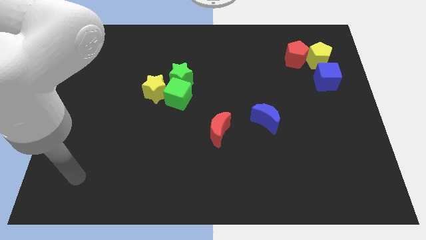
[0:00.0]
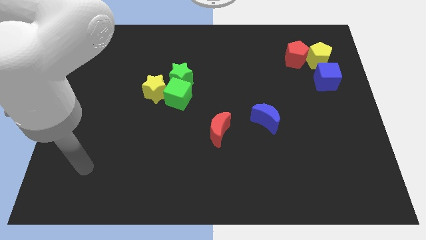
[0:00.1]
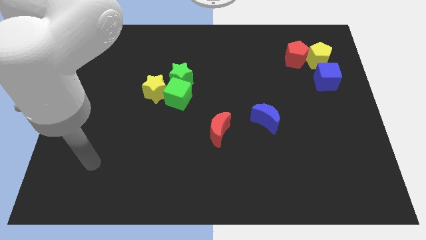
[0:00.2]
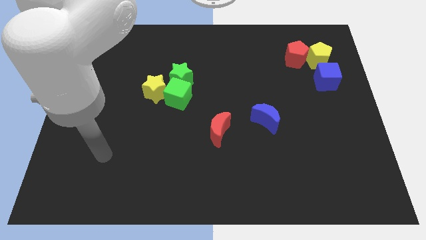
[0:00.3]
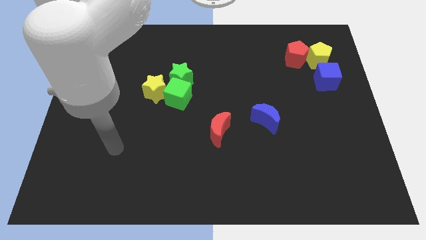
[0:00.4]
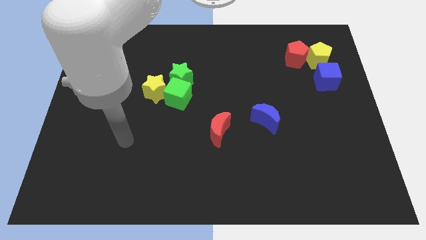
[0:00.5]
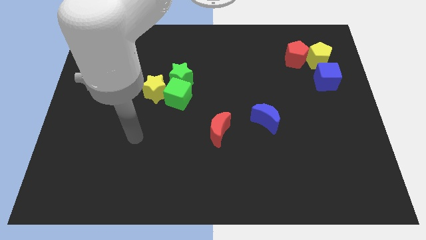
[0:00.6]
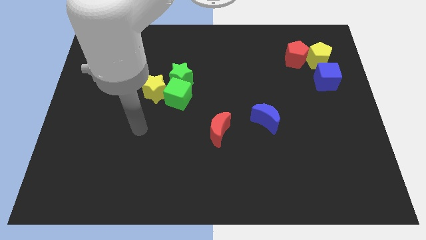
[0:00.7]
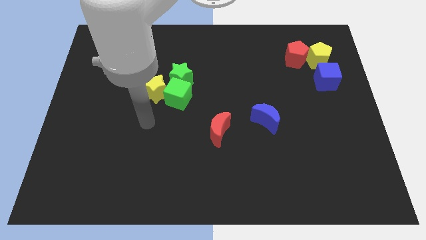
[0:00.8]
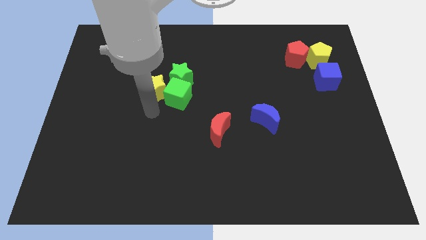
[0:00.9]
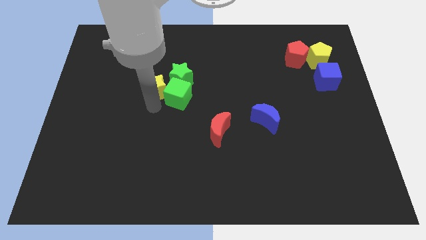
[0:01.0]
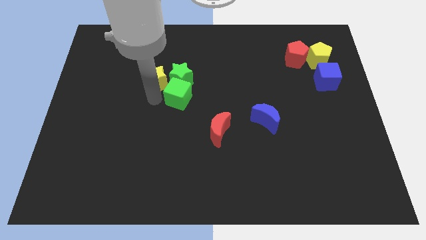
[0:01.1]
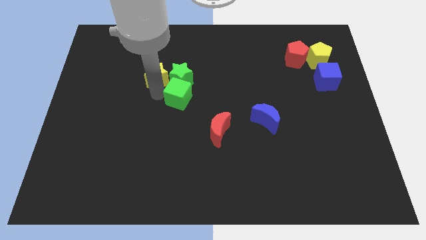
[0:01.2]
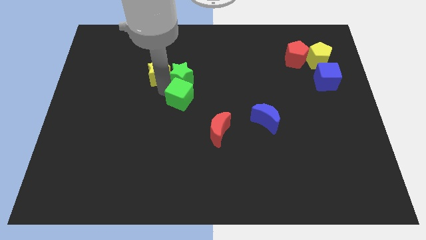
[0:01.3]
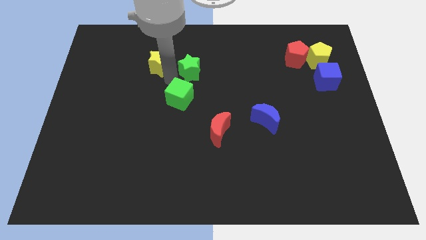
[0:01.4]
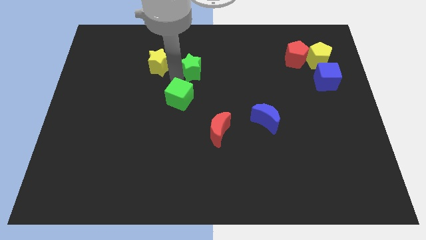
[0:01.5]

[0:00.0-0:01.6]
separate the green cube from the green star and yellow star

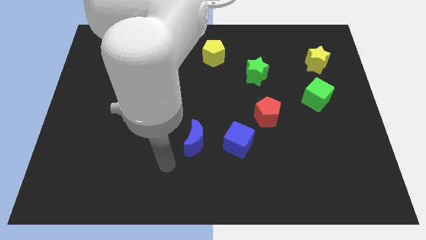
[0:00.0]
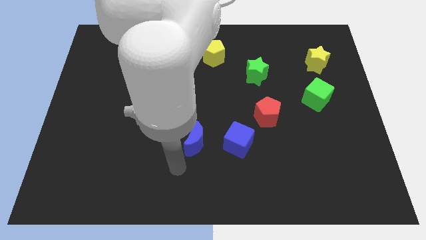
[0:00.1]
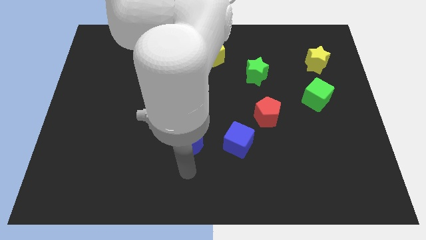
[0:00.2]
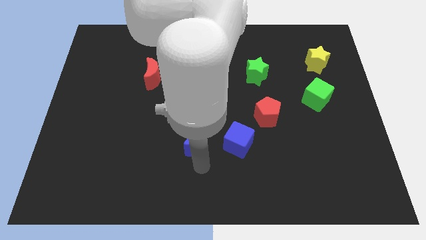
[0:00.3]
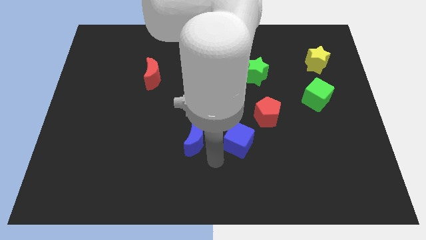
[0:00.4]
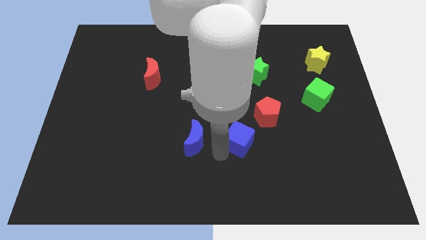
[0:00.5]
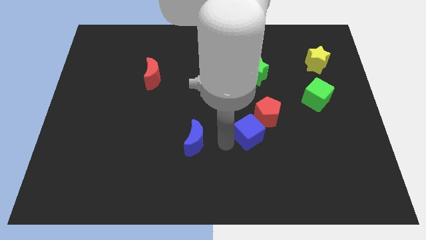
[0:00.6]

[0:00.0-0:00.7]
move the blue moon away from the blue cube

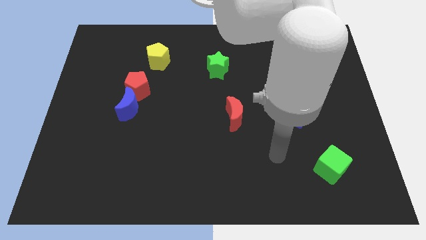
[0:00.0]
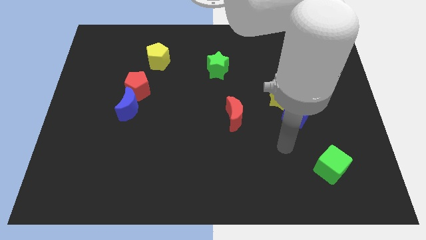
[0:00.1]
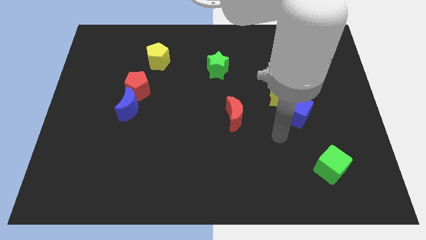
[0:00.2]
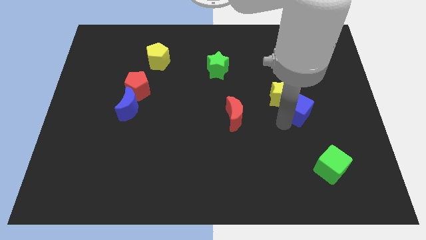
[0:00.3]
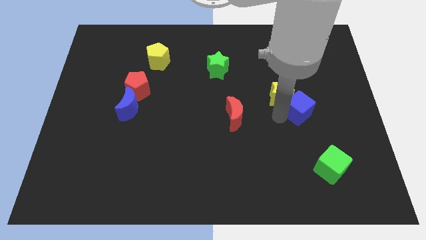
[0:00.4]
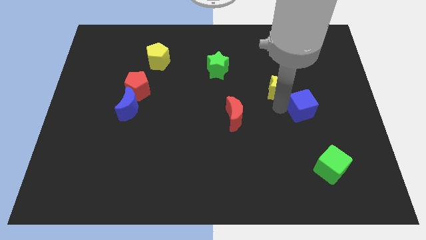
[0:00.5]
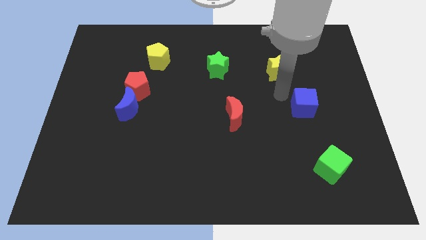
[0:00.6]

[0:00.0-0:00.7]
move the blue cube away from the yellow star

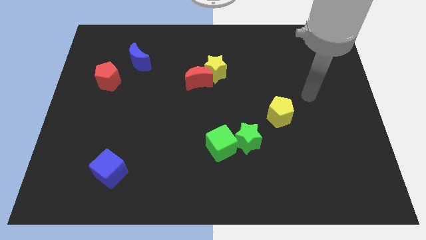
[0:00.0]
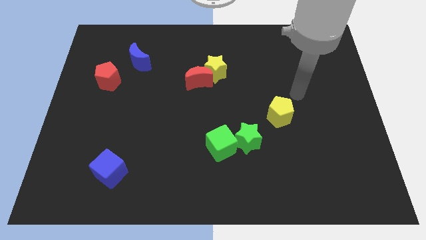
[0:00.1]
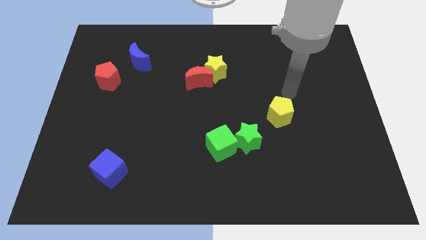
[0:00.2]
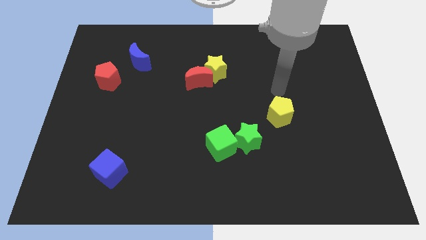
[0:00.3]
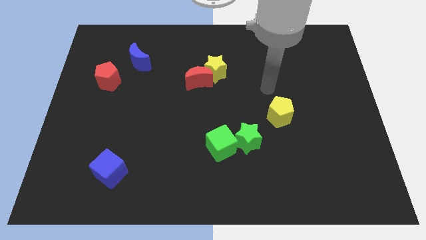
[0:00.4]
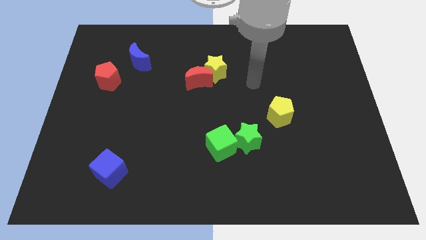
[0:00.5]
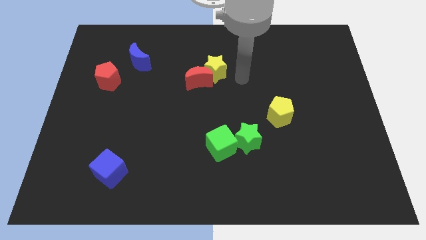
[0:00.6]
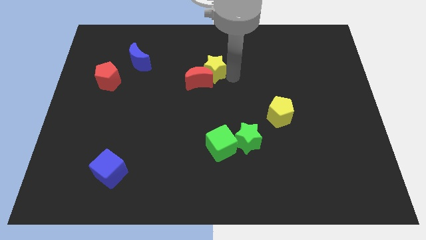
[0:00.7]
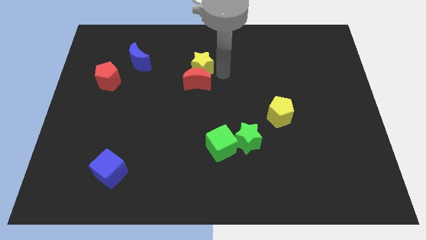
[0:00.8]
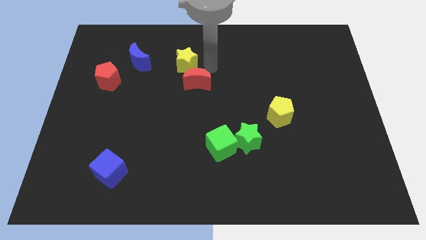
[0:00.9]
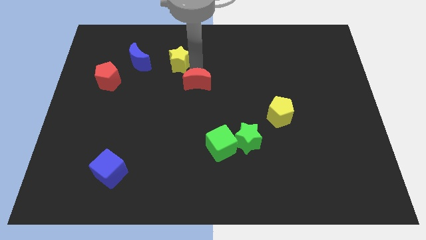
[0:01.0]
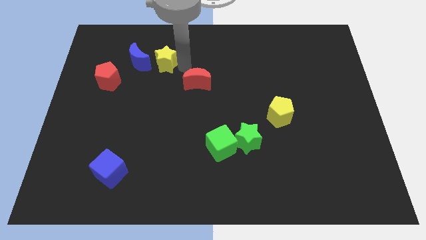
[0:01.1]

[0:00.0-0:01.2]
move the red moon away from the yellow star

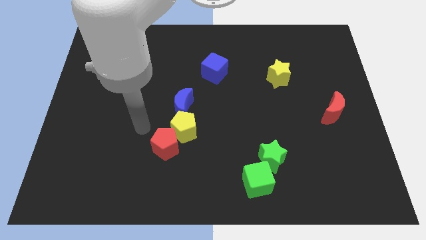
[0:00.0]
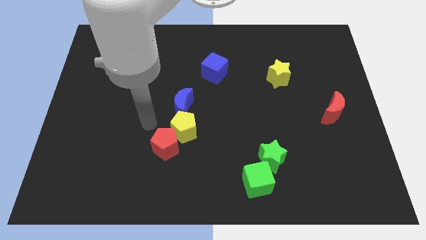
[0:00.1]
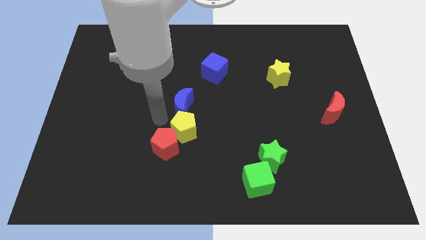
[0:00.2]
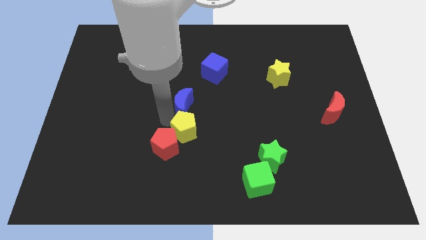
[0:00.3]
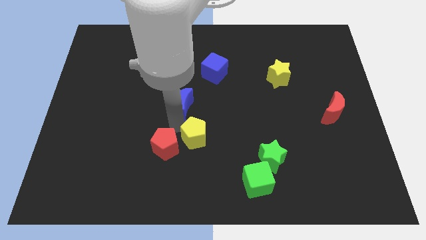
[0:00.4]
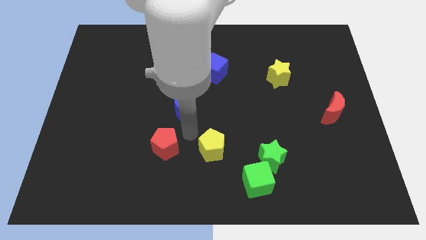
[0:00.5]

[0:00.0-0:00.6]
separate the red pentagon from the yellow pentagon

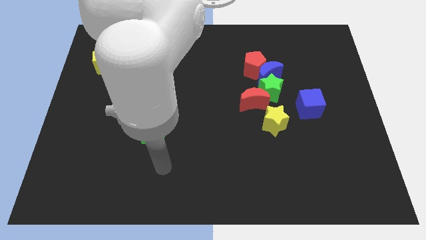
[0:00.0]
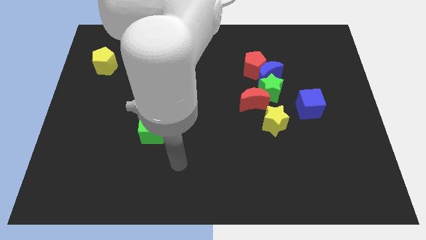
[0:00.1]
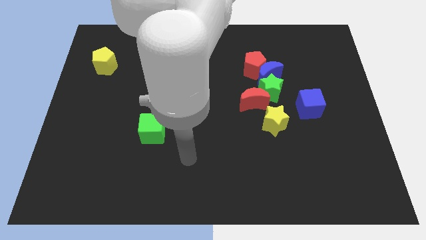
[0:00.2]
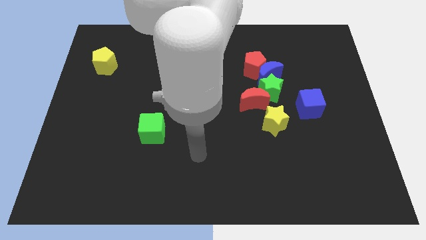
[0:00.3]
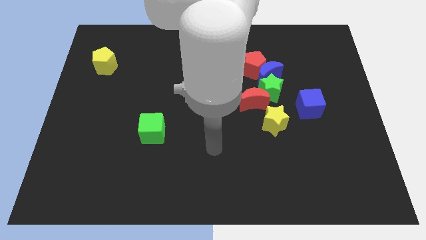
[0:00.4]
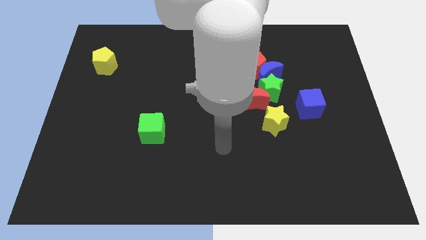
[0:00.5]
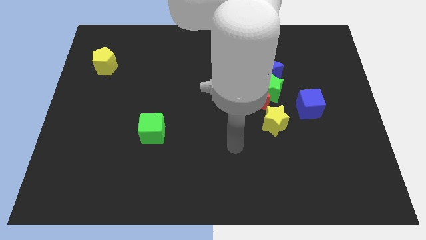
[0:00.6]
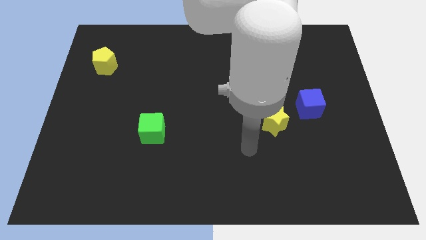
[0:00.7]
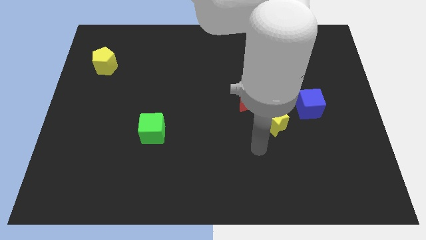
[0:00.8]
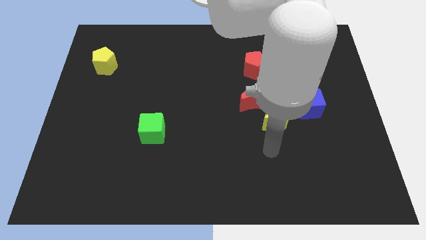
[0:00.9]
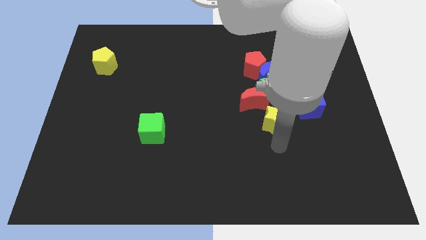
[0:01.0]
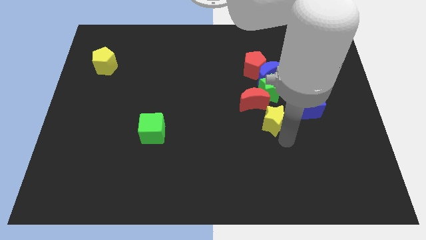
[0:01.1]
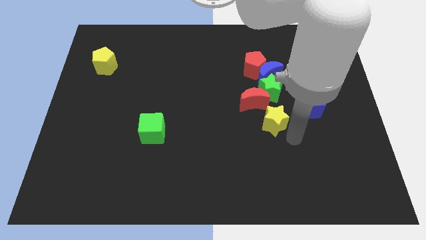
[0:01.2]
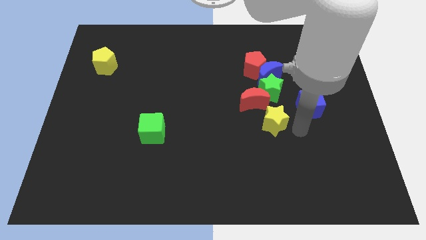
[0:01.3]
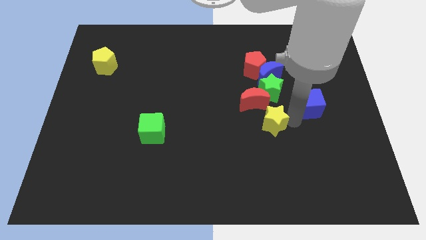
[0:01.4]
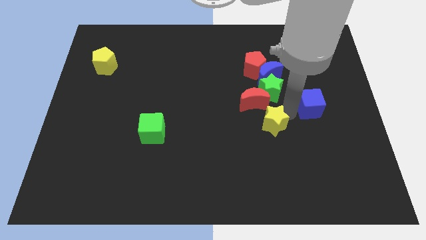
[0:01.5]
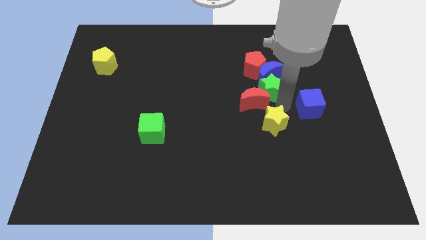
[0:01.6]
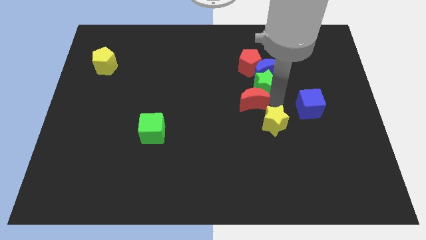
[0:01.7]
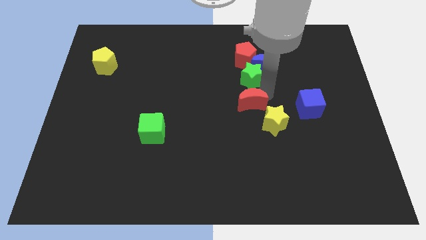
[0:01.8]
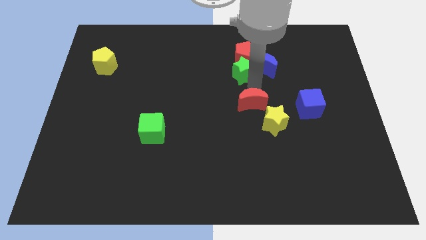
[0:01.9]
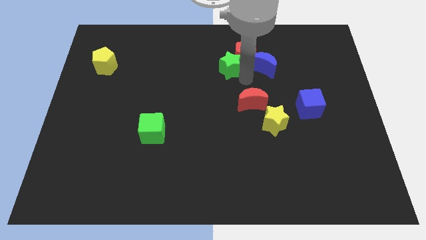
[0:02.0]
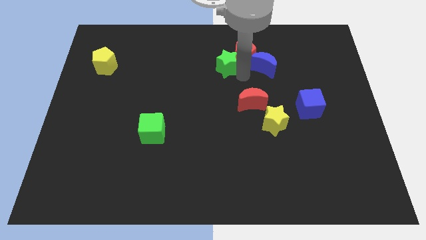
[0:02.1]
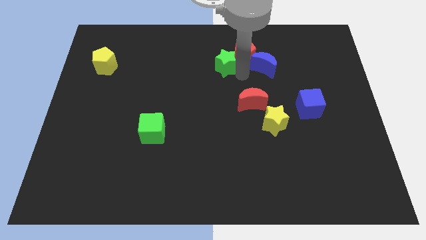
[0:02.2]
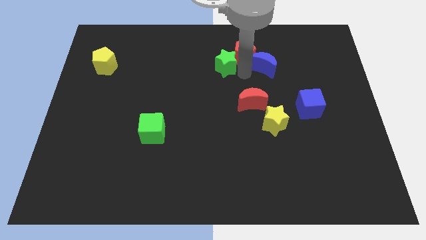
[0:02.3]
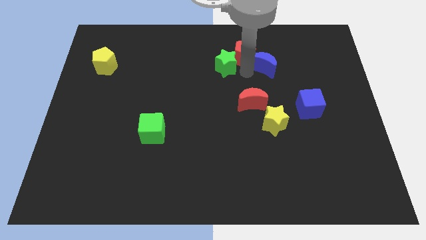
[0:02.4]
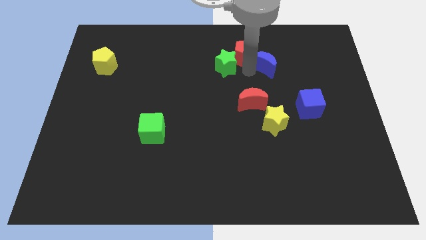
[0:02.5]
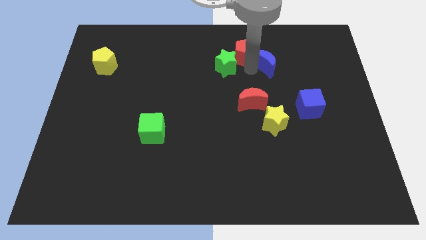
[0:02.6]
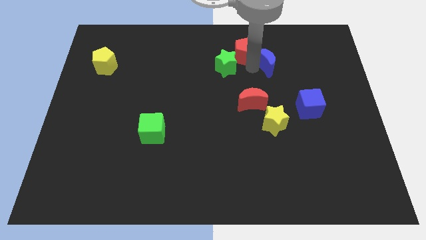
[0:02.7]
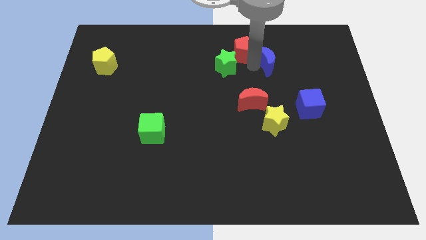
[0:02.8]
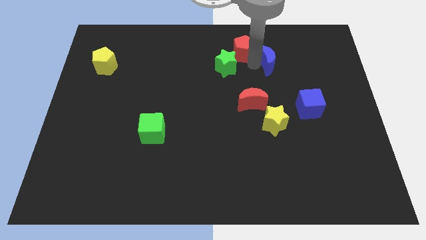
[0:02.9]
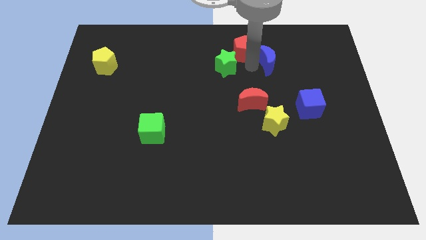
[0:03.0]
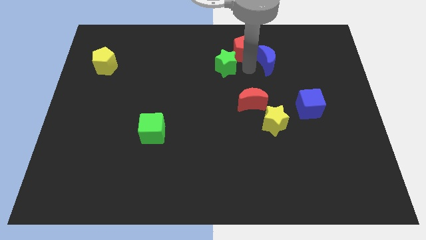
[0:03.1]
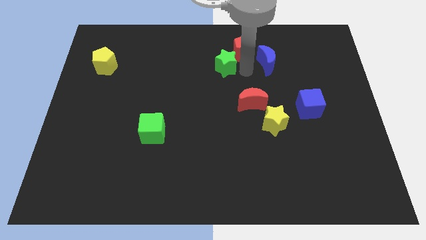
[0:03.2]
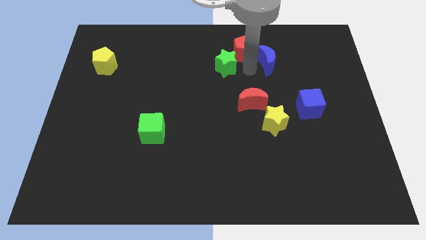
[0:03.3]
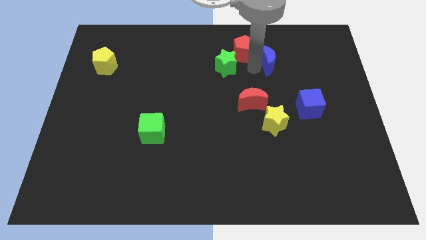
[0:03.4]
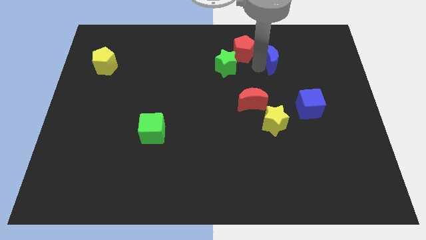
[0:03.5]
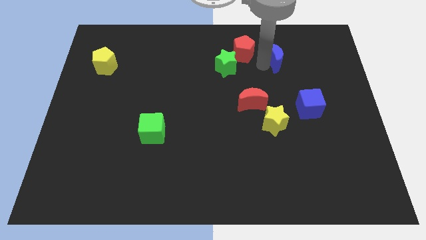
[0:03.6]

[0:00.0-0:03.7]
move the blue moon away from the red pentagon, green star, and red moon

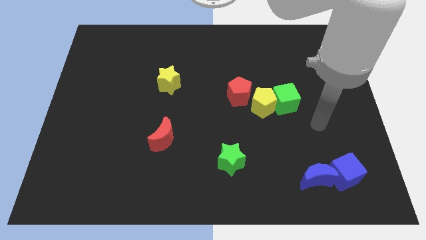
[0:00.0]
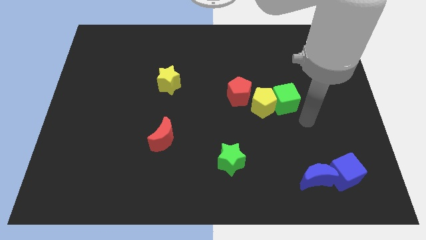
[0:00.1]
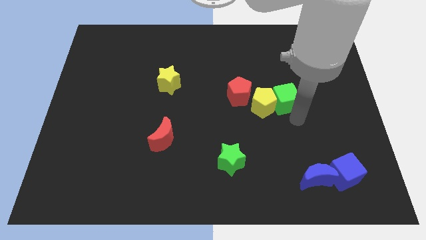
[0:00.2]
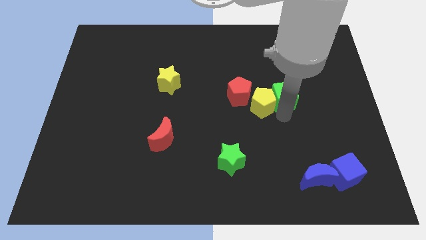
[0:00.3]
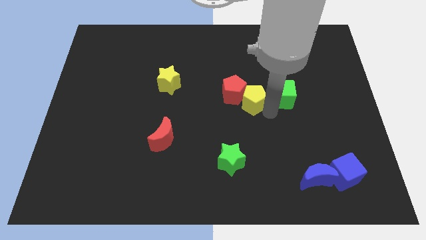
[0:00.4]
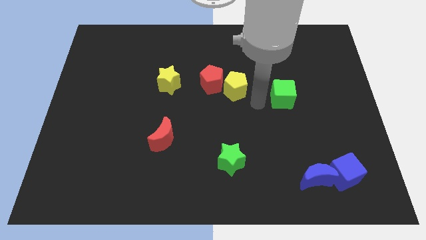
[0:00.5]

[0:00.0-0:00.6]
move the green cube away from the yellow pentagon

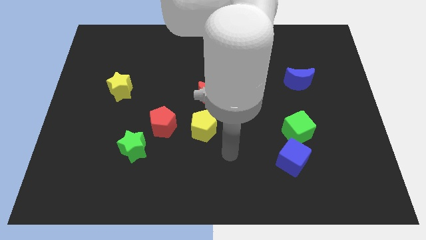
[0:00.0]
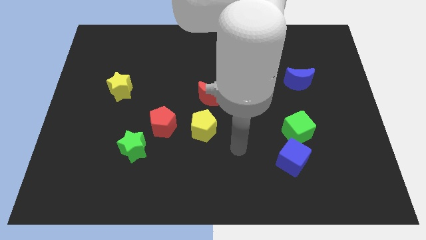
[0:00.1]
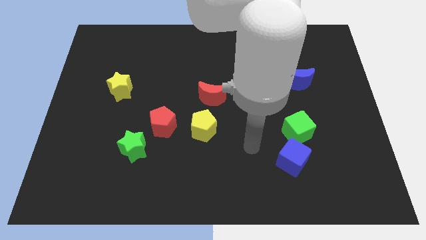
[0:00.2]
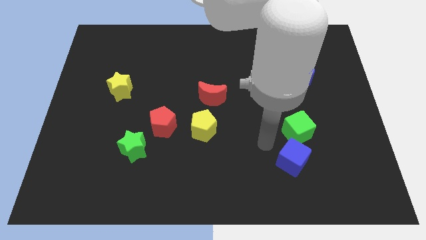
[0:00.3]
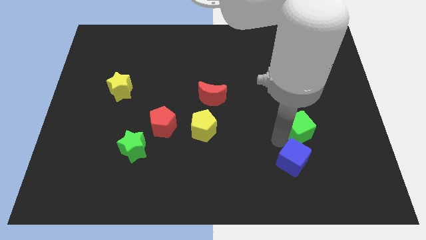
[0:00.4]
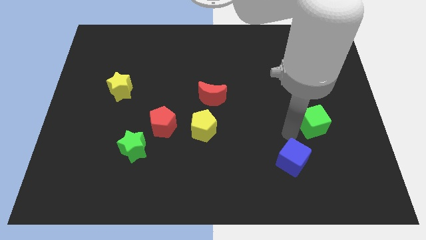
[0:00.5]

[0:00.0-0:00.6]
separate the blue cube from the green cube
